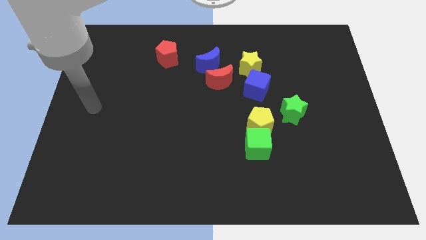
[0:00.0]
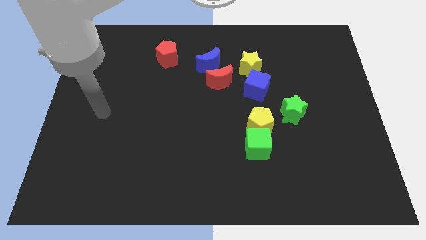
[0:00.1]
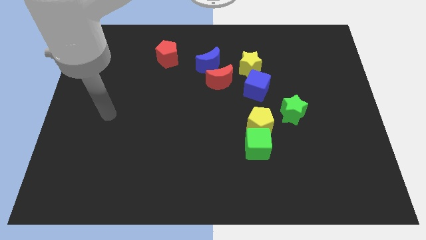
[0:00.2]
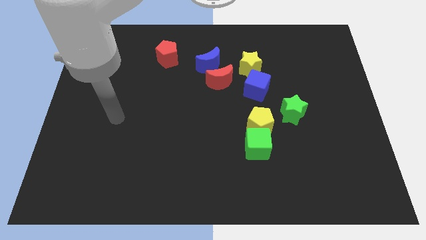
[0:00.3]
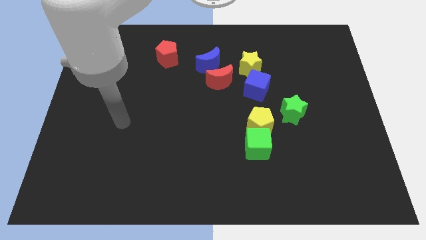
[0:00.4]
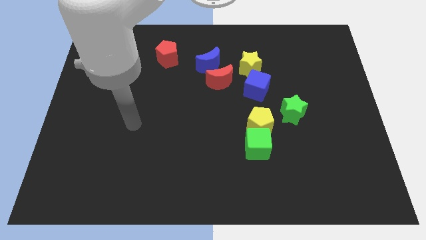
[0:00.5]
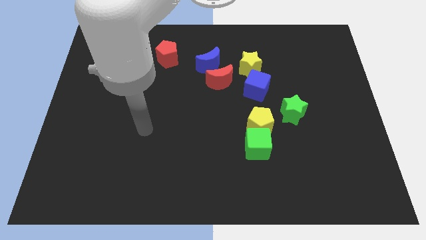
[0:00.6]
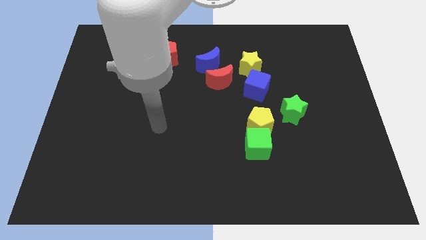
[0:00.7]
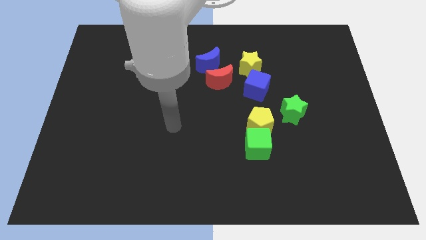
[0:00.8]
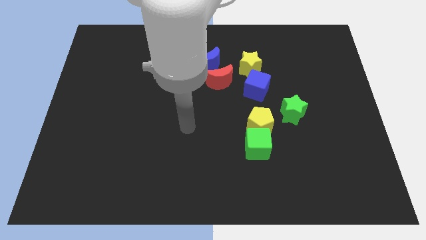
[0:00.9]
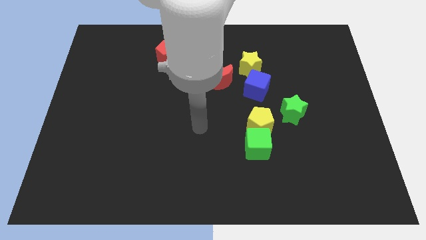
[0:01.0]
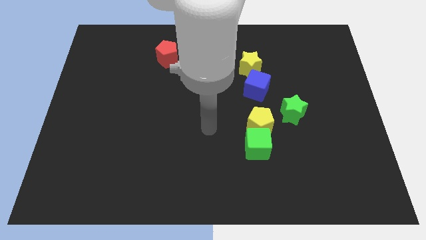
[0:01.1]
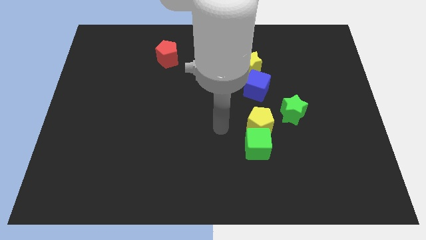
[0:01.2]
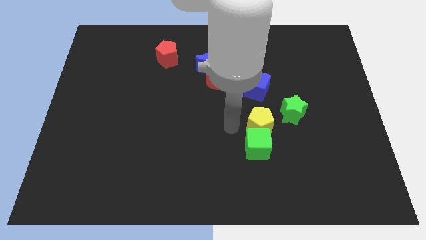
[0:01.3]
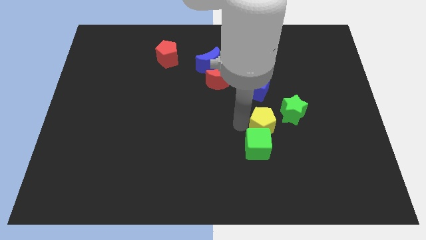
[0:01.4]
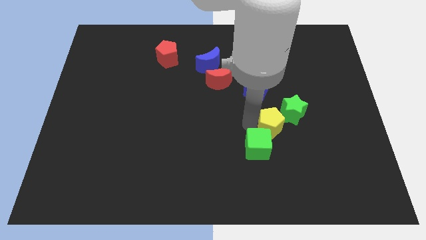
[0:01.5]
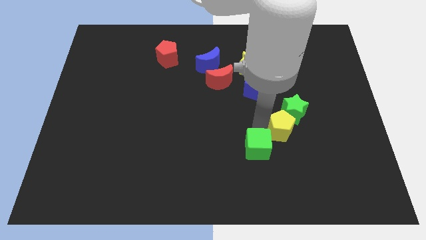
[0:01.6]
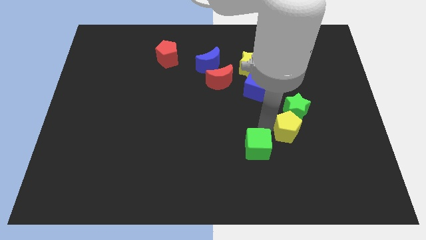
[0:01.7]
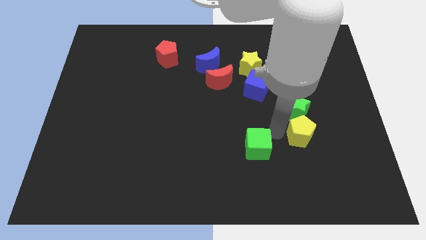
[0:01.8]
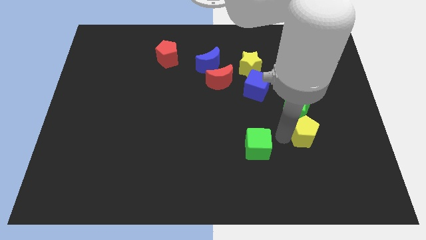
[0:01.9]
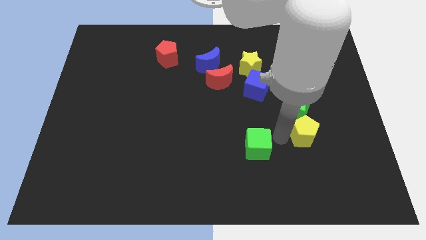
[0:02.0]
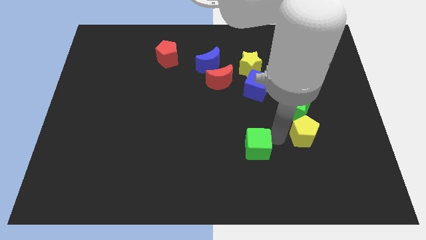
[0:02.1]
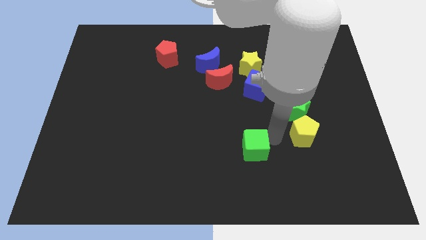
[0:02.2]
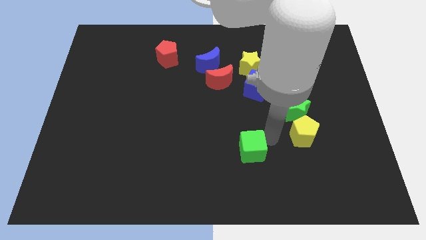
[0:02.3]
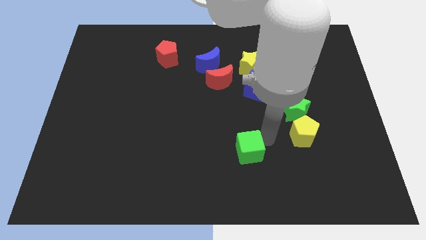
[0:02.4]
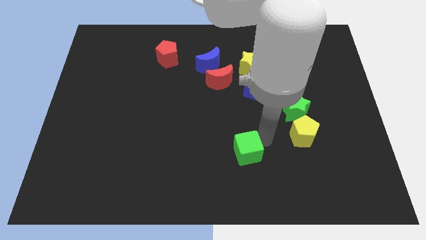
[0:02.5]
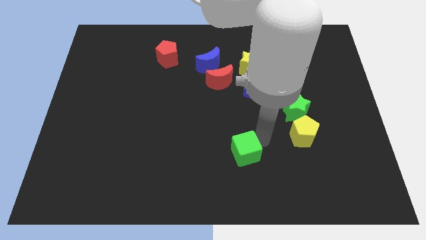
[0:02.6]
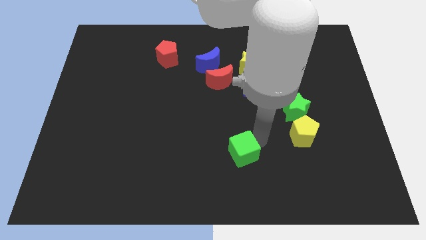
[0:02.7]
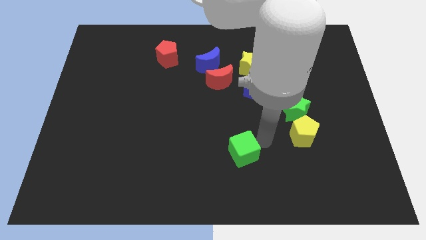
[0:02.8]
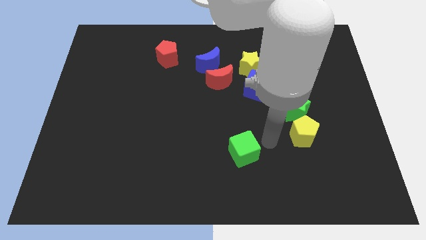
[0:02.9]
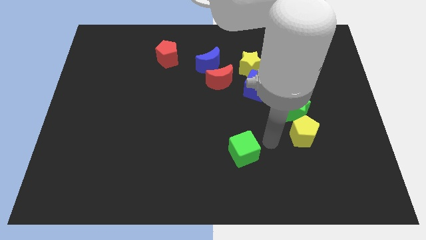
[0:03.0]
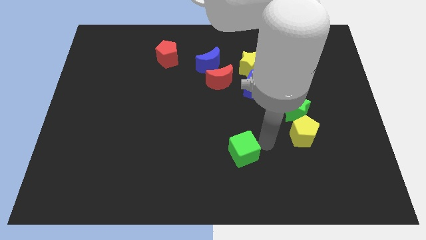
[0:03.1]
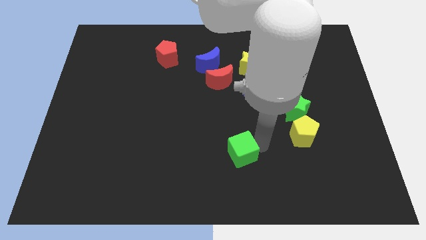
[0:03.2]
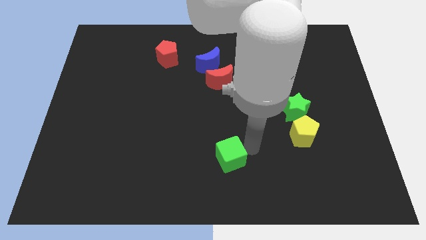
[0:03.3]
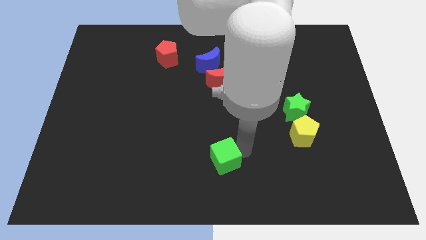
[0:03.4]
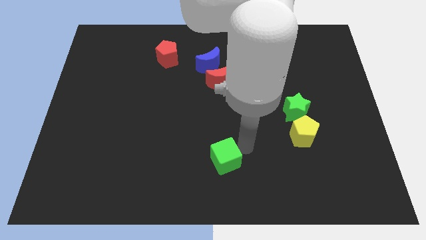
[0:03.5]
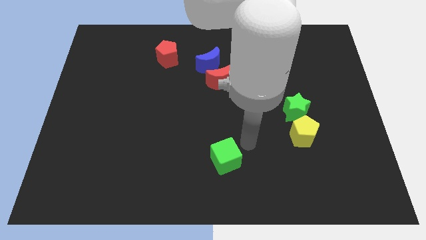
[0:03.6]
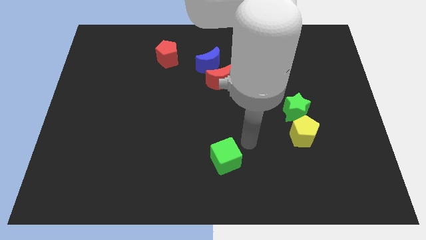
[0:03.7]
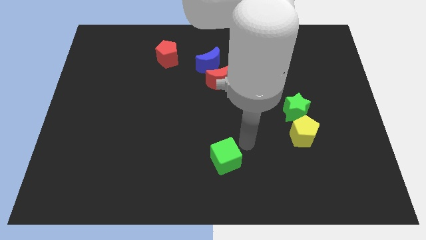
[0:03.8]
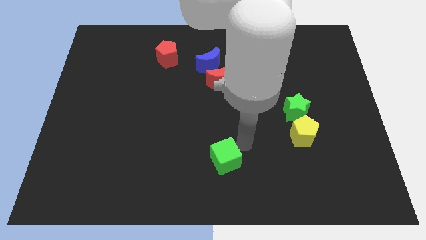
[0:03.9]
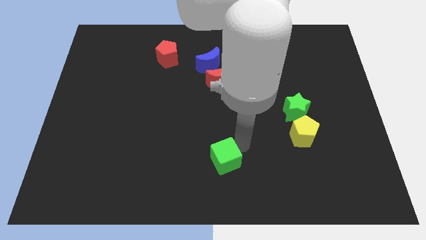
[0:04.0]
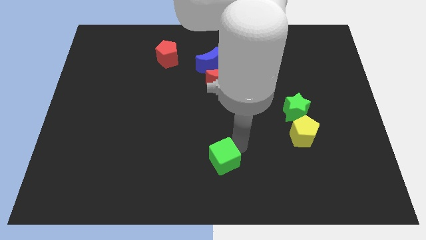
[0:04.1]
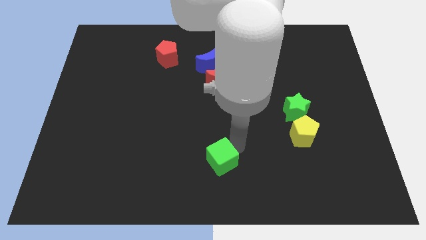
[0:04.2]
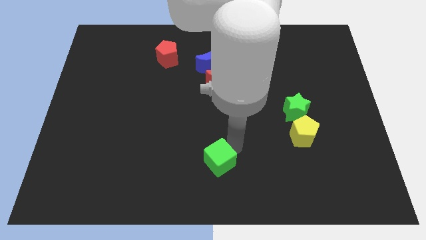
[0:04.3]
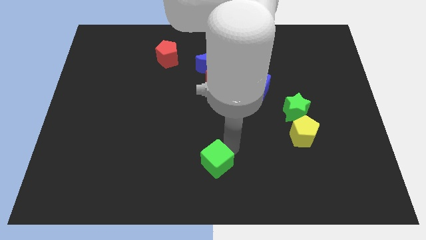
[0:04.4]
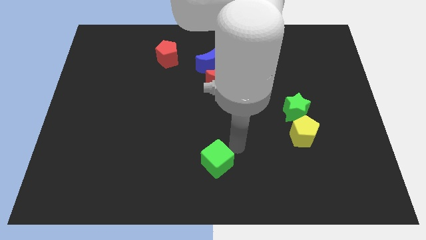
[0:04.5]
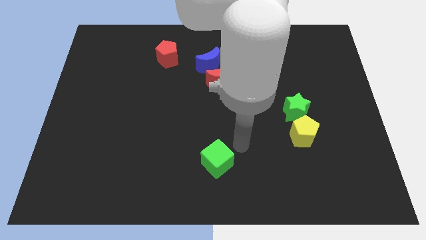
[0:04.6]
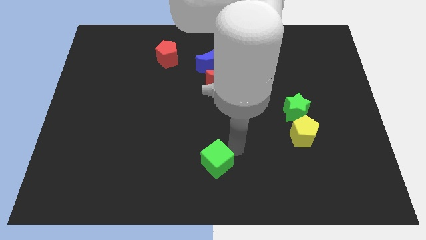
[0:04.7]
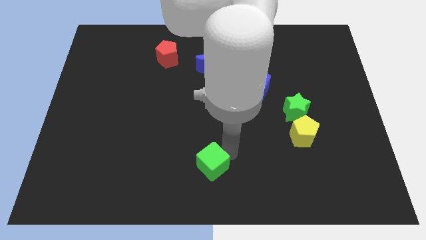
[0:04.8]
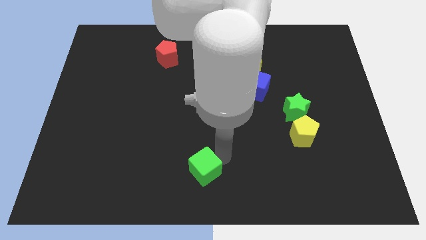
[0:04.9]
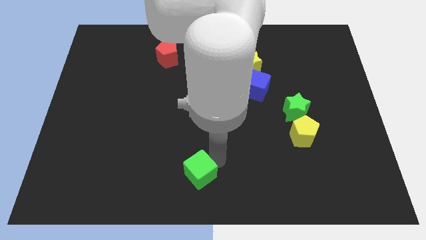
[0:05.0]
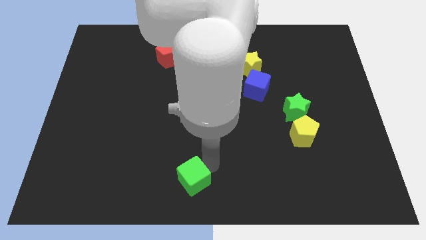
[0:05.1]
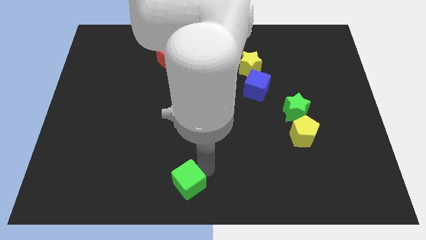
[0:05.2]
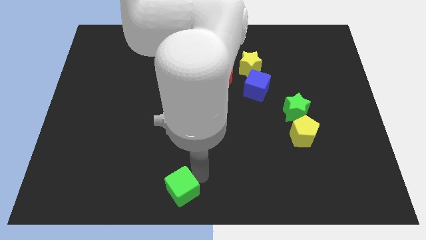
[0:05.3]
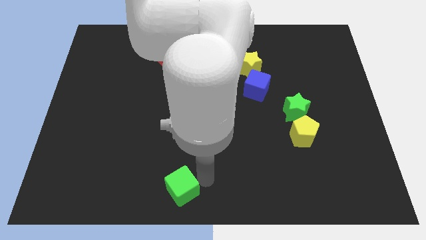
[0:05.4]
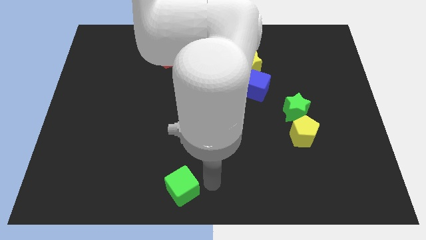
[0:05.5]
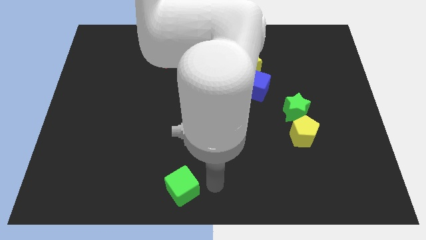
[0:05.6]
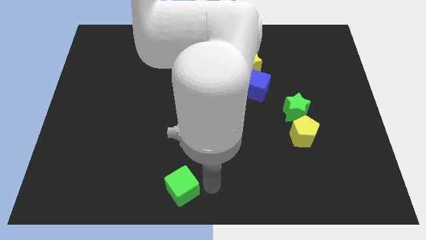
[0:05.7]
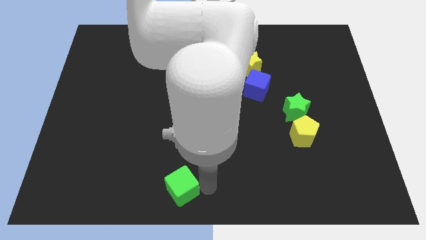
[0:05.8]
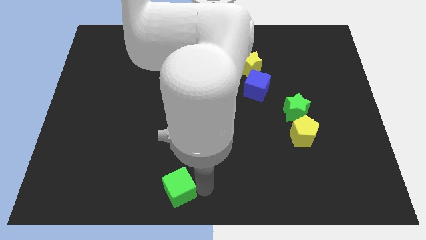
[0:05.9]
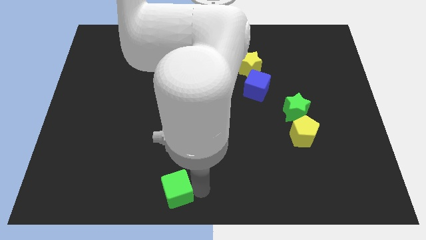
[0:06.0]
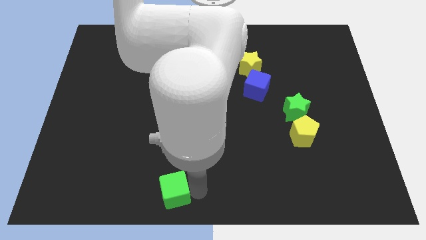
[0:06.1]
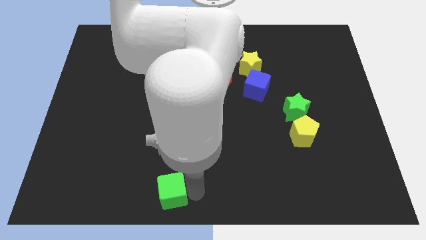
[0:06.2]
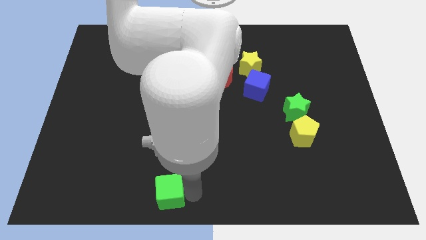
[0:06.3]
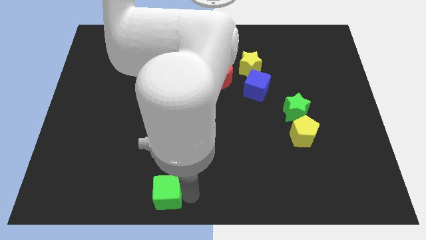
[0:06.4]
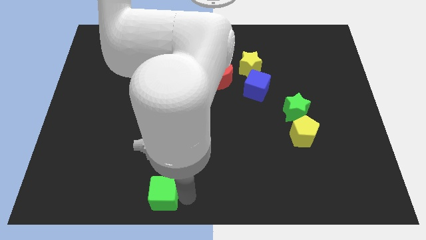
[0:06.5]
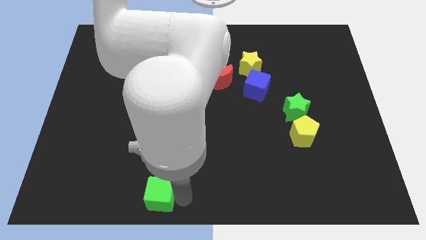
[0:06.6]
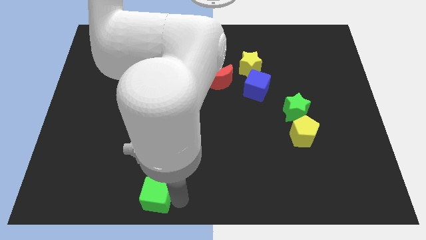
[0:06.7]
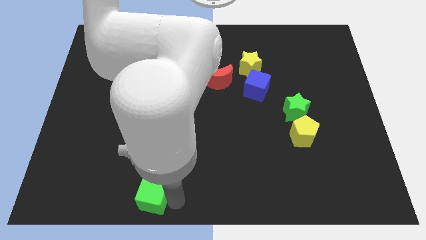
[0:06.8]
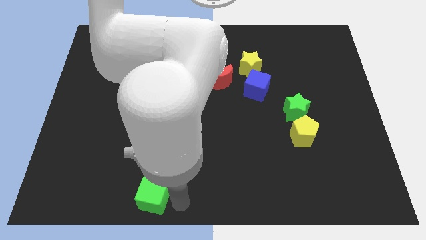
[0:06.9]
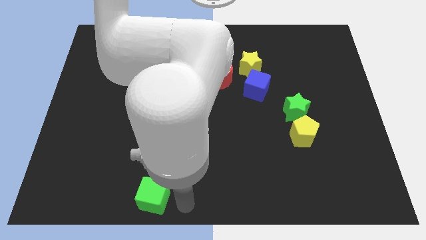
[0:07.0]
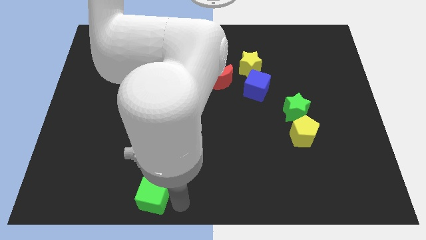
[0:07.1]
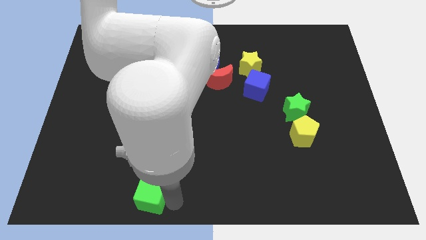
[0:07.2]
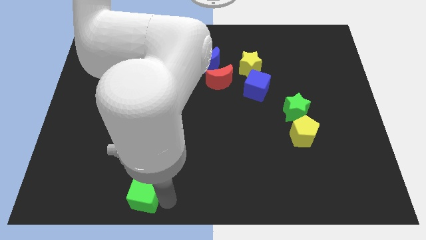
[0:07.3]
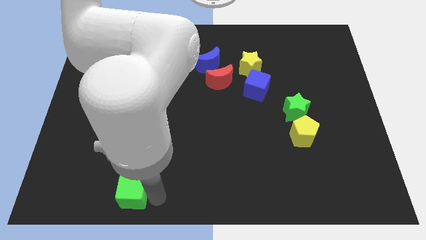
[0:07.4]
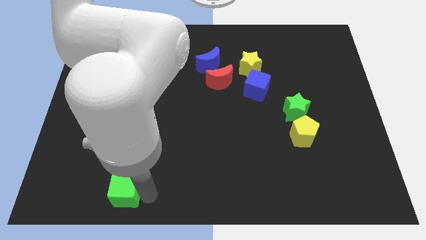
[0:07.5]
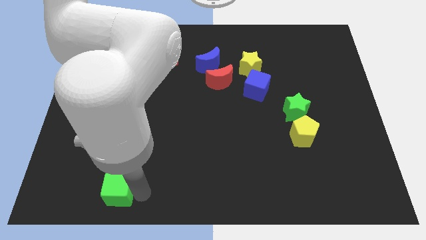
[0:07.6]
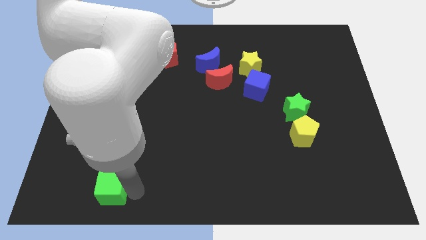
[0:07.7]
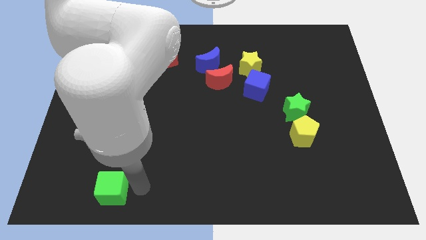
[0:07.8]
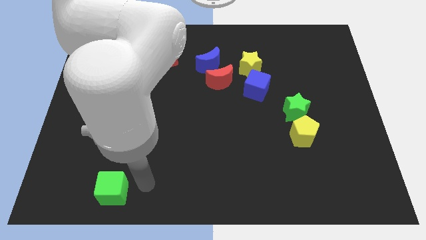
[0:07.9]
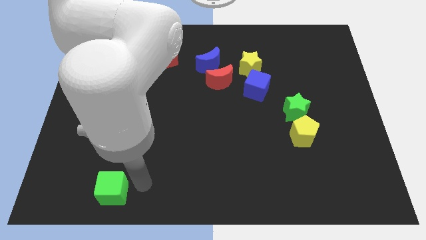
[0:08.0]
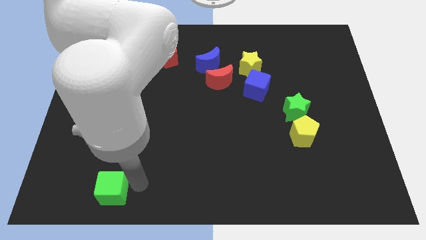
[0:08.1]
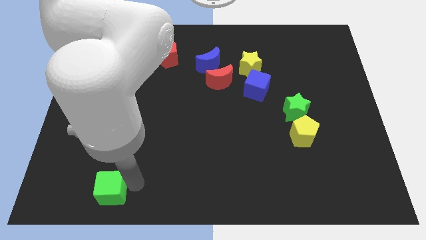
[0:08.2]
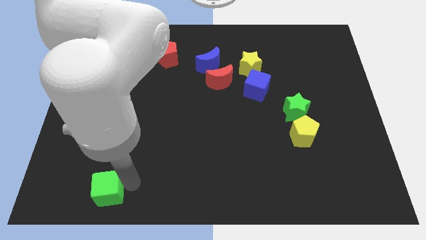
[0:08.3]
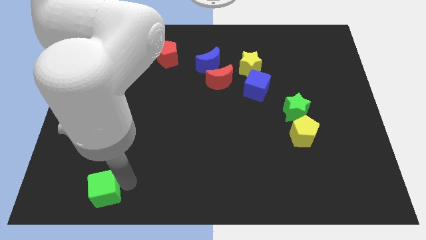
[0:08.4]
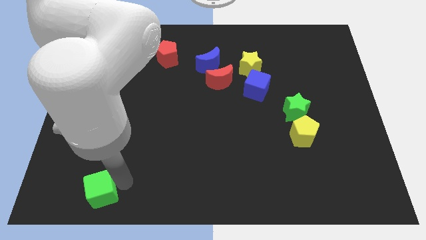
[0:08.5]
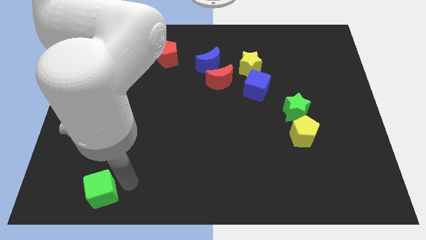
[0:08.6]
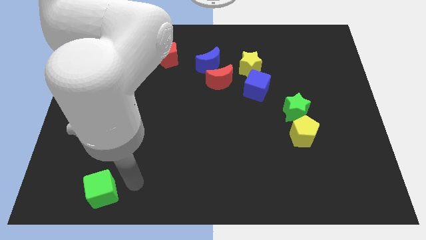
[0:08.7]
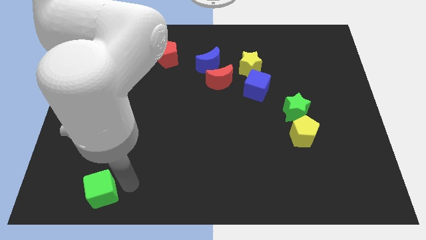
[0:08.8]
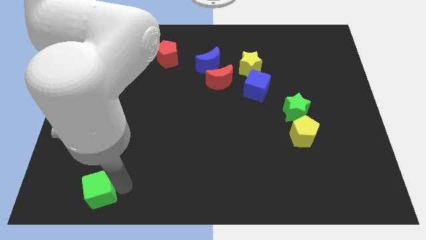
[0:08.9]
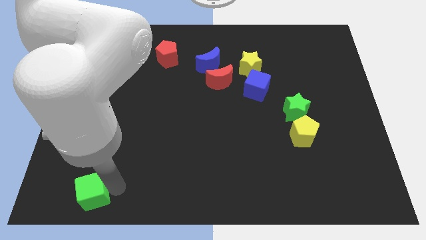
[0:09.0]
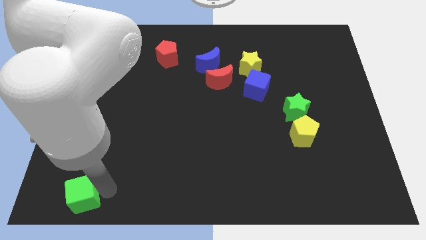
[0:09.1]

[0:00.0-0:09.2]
put the green cube to the bottom left of the board
